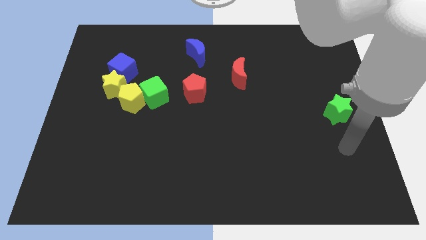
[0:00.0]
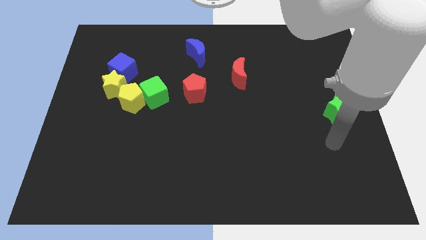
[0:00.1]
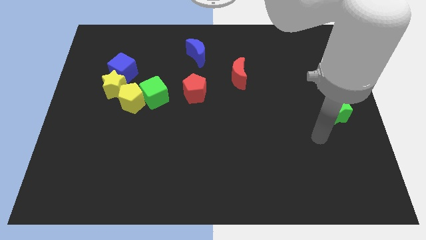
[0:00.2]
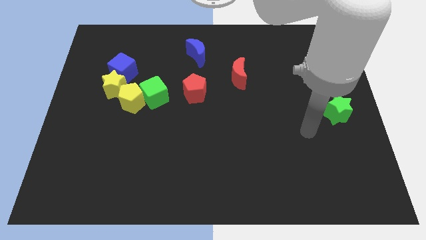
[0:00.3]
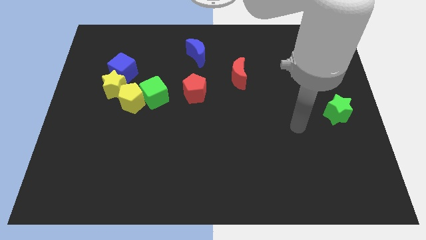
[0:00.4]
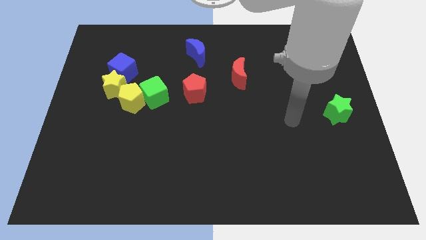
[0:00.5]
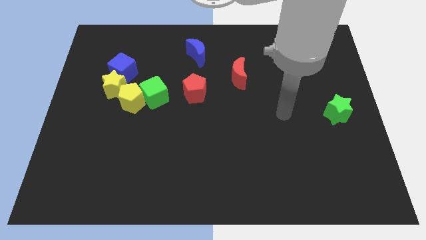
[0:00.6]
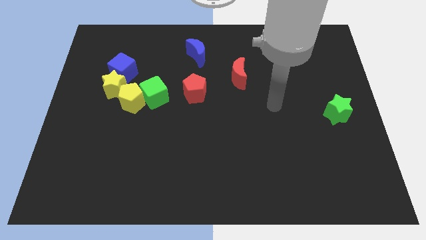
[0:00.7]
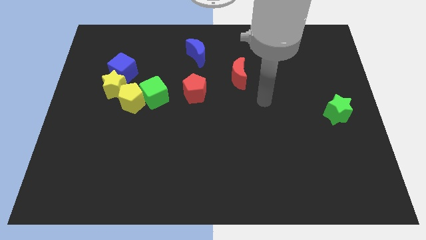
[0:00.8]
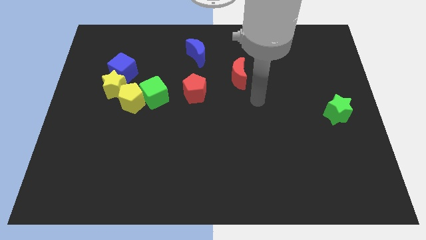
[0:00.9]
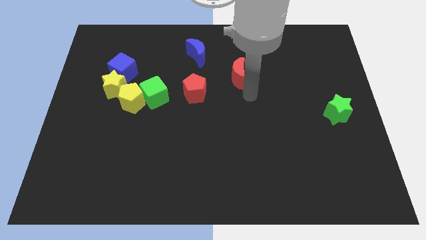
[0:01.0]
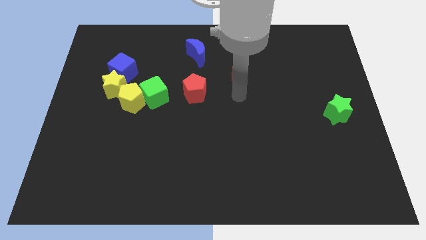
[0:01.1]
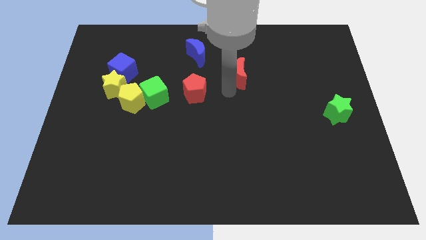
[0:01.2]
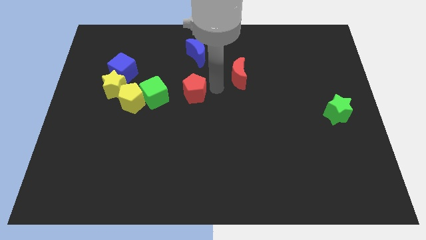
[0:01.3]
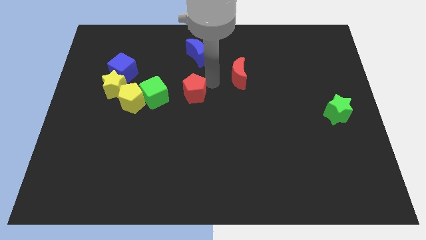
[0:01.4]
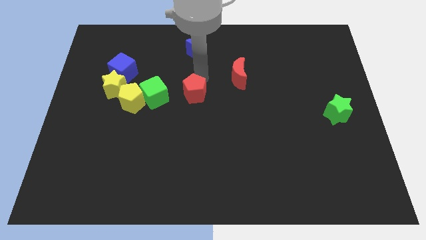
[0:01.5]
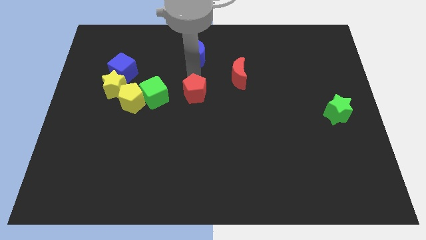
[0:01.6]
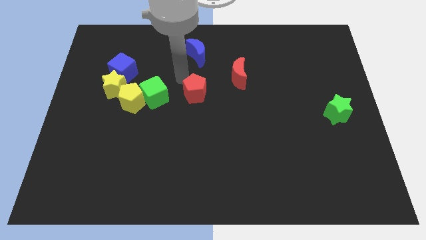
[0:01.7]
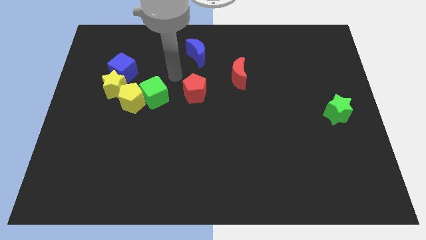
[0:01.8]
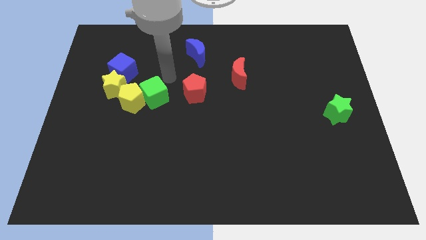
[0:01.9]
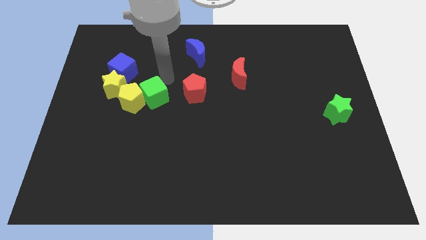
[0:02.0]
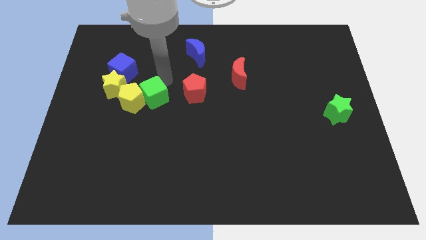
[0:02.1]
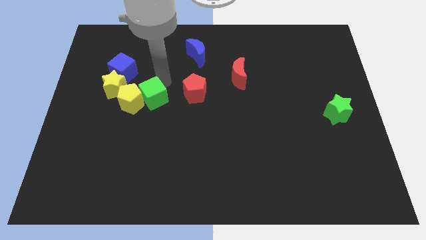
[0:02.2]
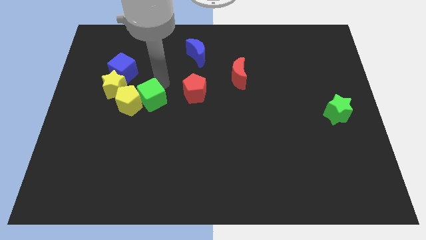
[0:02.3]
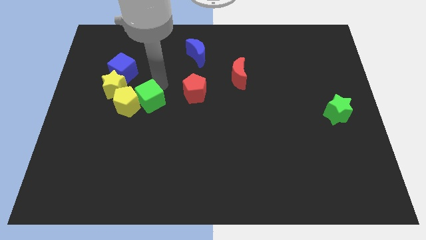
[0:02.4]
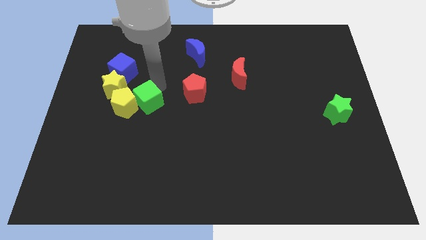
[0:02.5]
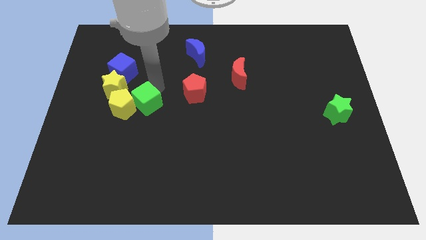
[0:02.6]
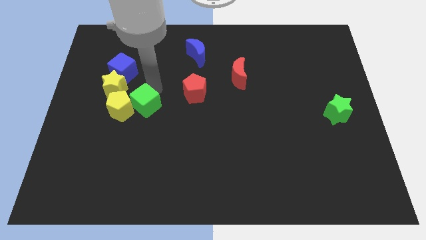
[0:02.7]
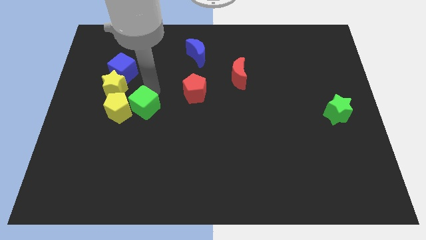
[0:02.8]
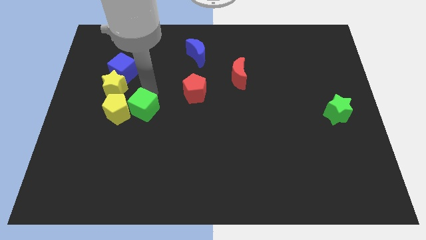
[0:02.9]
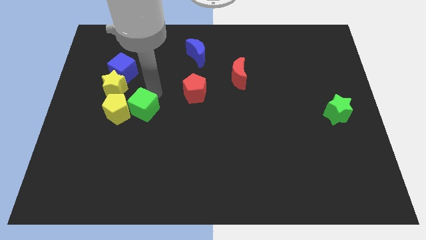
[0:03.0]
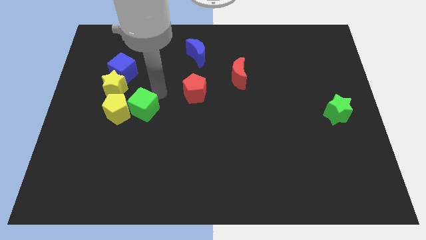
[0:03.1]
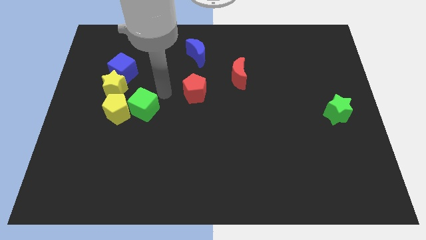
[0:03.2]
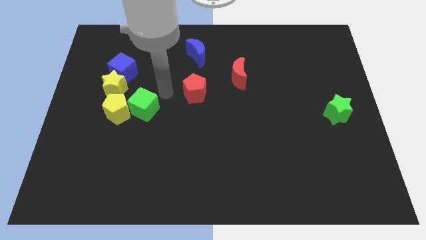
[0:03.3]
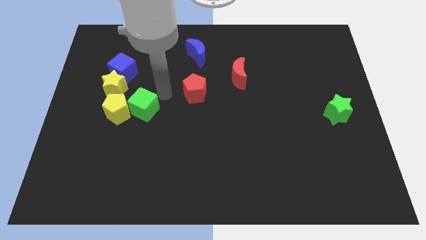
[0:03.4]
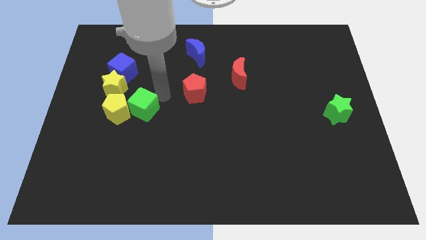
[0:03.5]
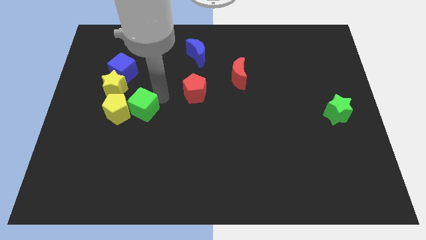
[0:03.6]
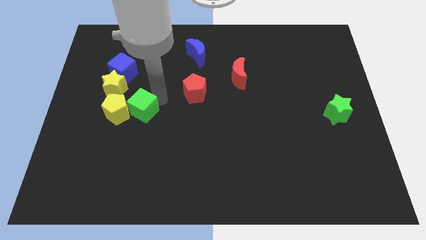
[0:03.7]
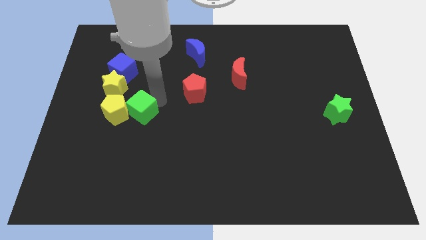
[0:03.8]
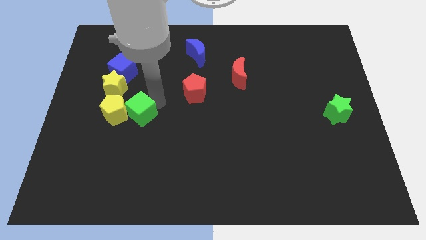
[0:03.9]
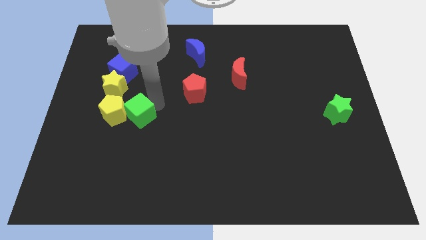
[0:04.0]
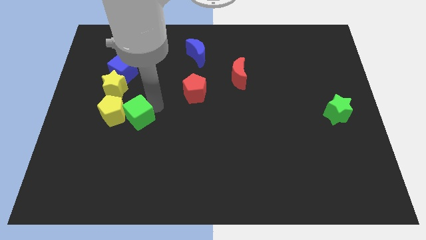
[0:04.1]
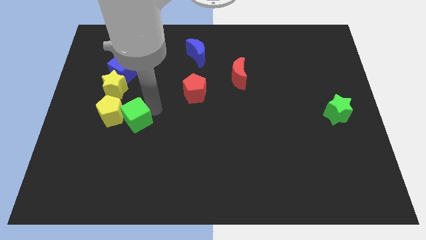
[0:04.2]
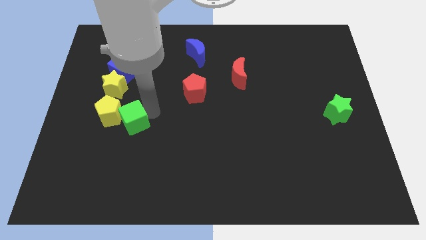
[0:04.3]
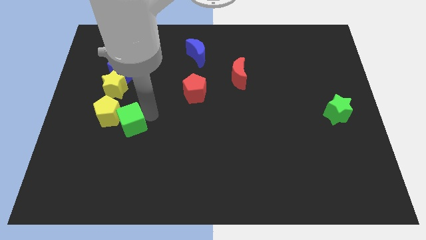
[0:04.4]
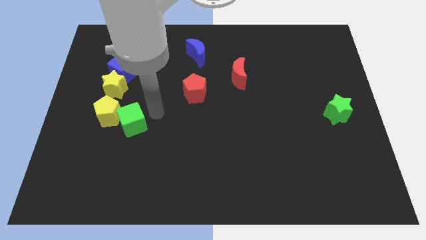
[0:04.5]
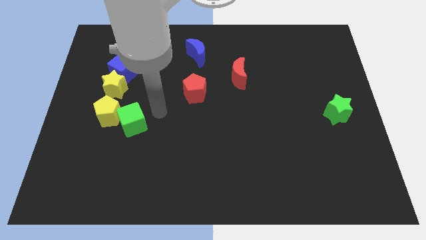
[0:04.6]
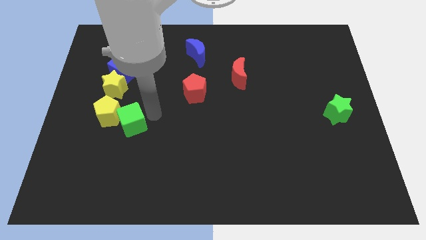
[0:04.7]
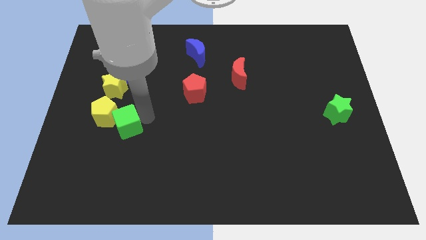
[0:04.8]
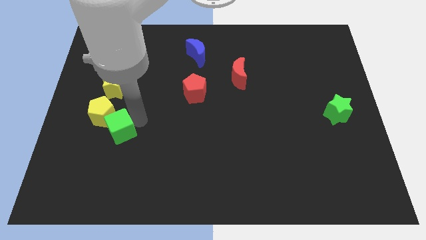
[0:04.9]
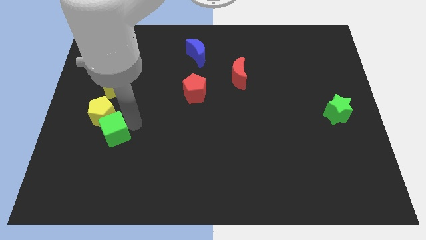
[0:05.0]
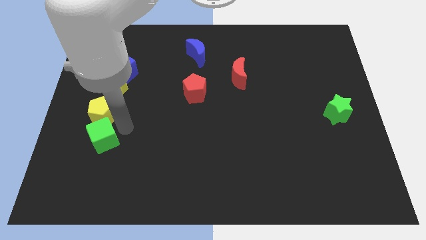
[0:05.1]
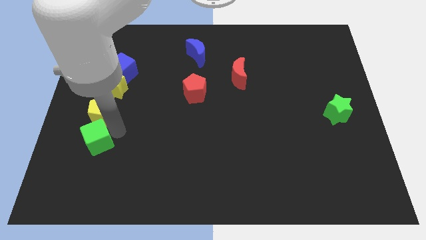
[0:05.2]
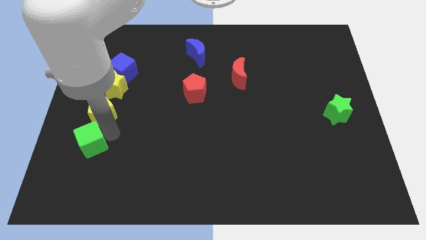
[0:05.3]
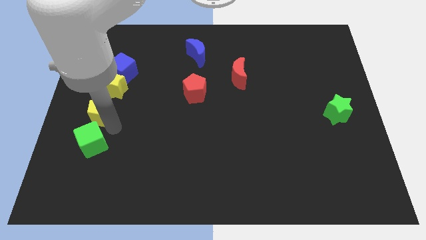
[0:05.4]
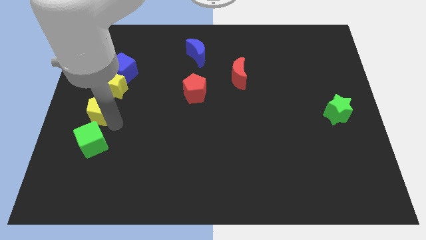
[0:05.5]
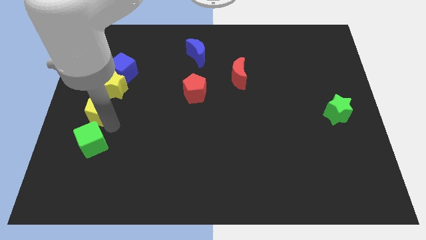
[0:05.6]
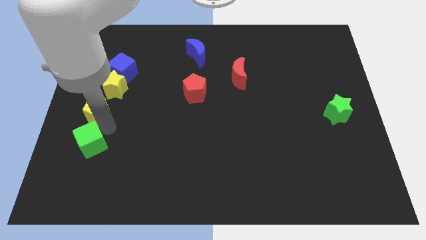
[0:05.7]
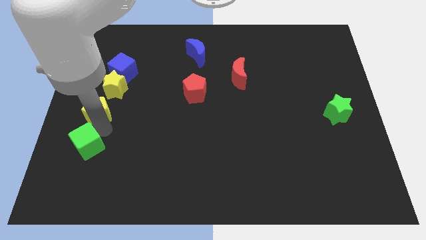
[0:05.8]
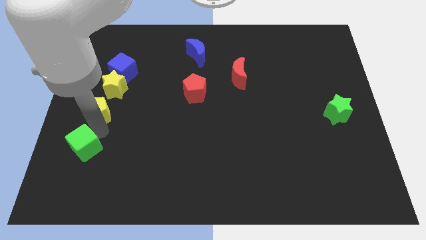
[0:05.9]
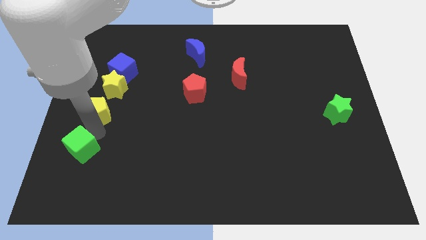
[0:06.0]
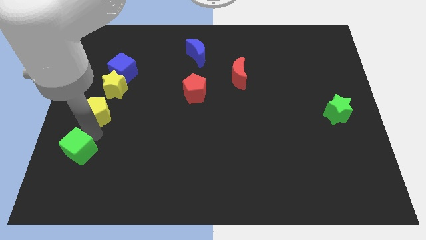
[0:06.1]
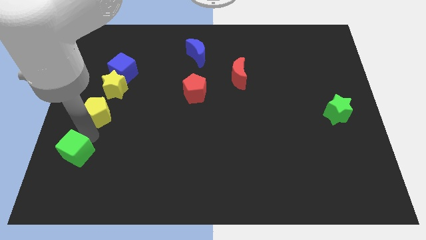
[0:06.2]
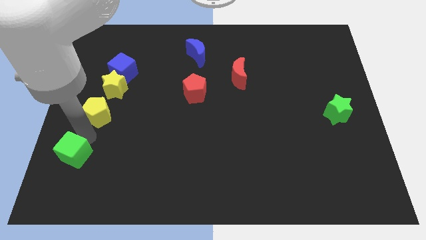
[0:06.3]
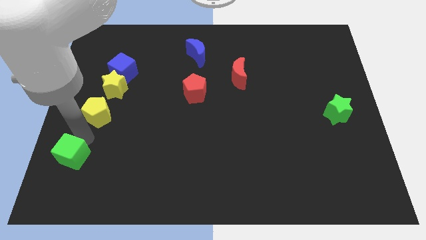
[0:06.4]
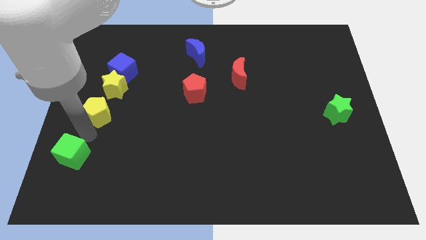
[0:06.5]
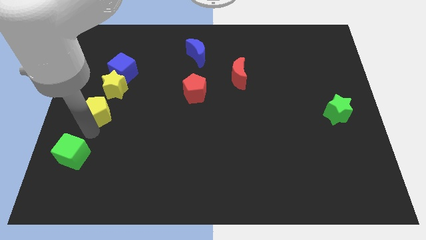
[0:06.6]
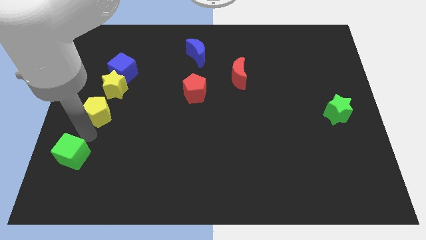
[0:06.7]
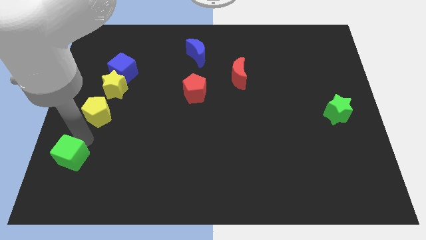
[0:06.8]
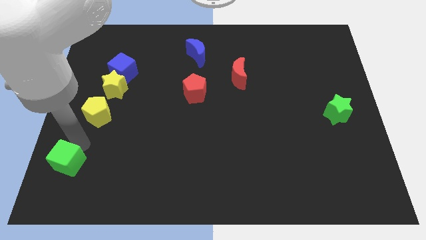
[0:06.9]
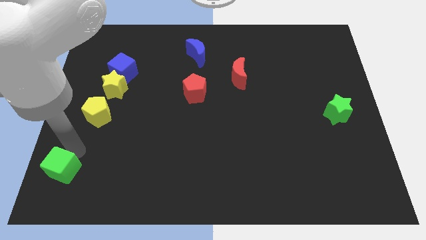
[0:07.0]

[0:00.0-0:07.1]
move the green cube to the bottom left of the board

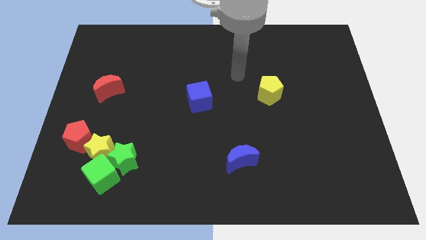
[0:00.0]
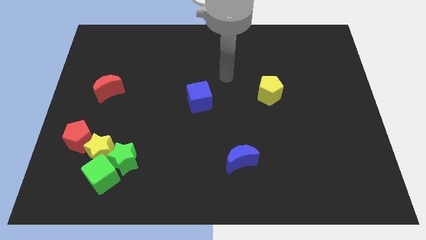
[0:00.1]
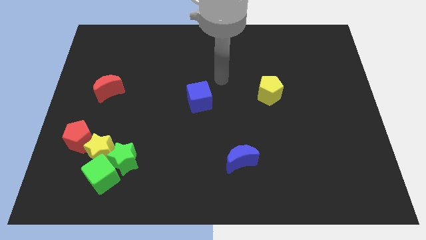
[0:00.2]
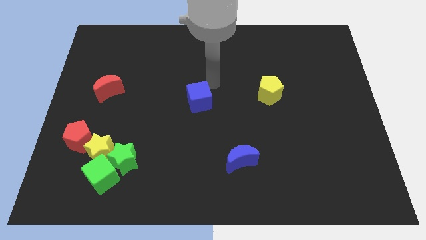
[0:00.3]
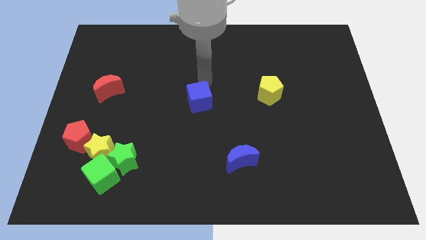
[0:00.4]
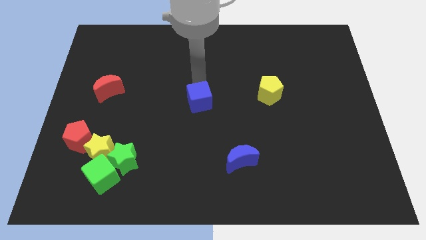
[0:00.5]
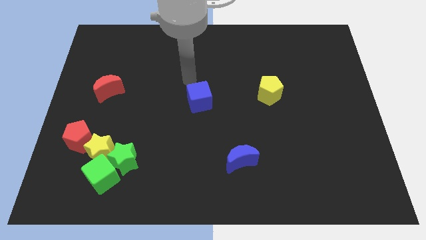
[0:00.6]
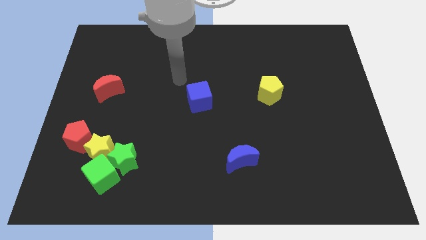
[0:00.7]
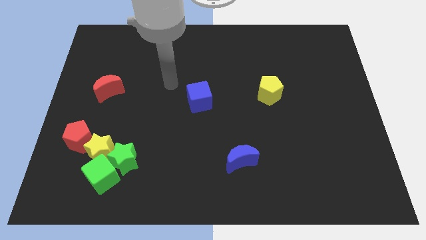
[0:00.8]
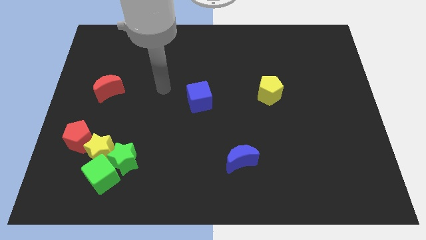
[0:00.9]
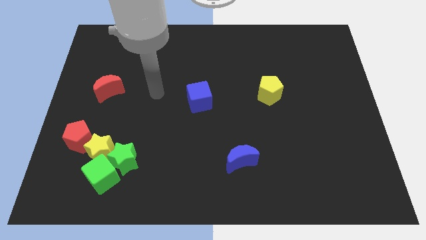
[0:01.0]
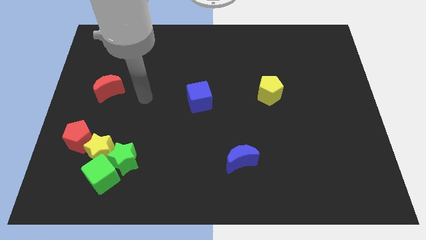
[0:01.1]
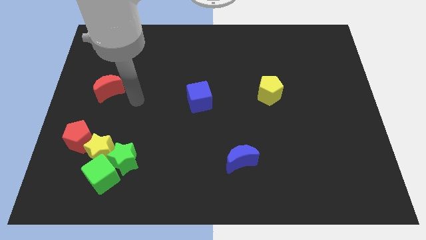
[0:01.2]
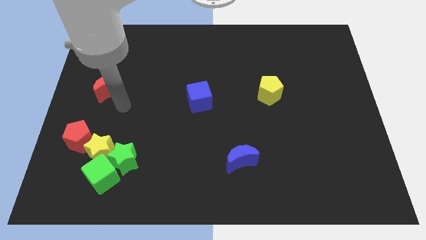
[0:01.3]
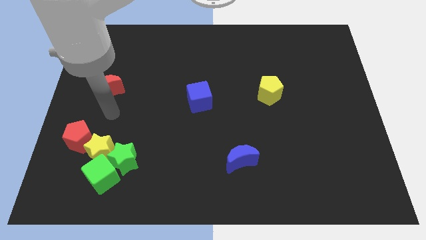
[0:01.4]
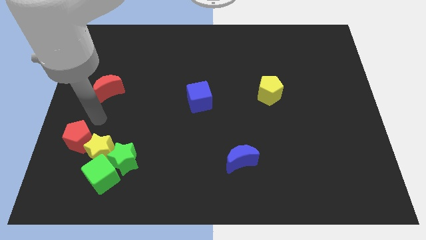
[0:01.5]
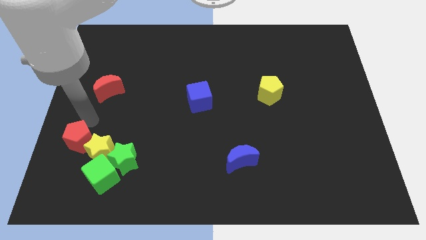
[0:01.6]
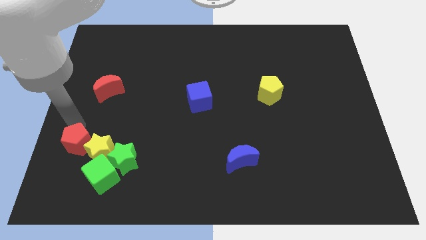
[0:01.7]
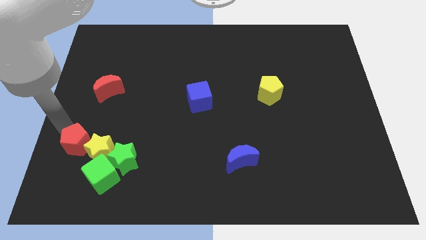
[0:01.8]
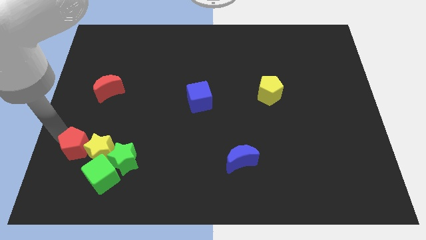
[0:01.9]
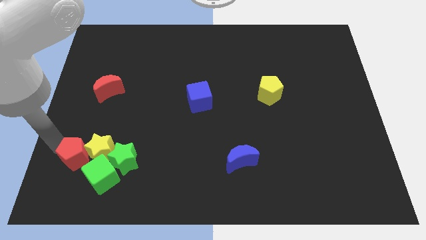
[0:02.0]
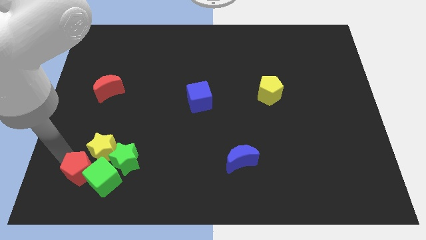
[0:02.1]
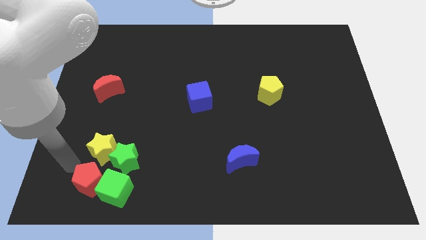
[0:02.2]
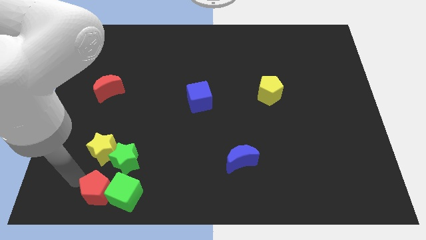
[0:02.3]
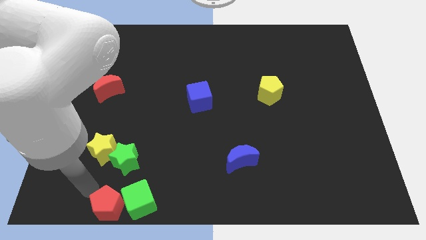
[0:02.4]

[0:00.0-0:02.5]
put the green cube to the bottom
